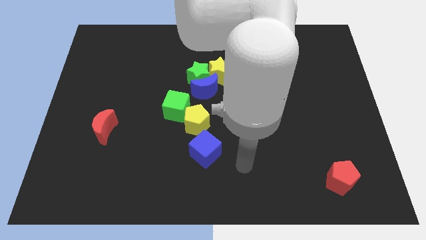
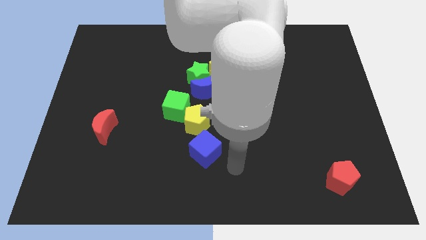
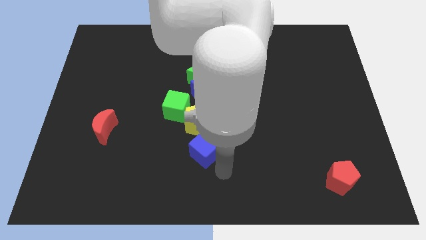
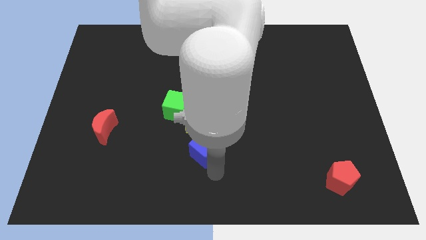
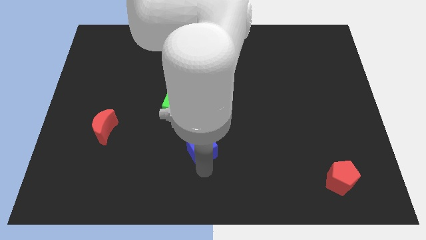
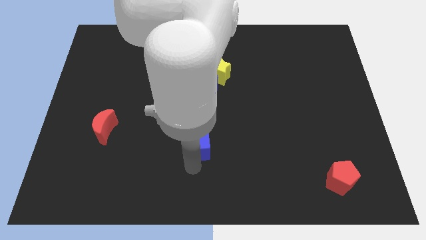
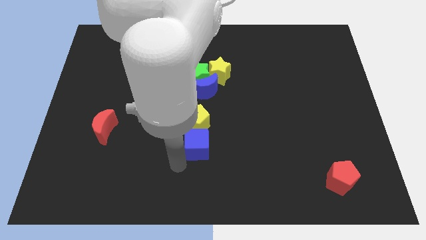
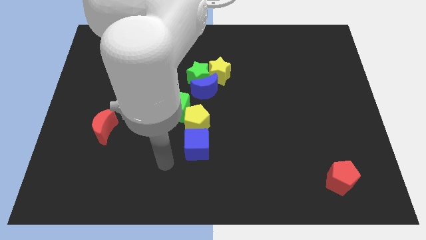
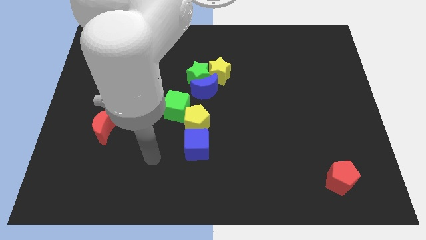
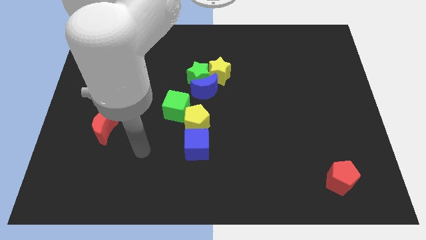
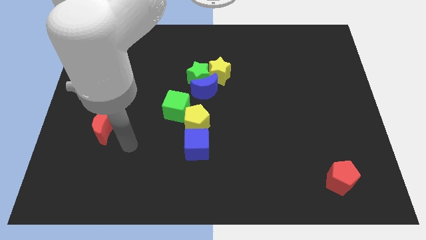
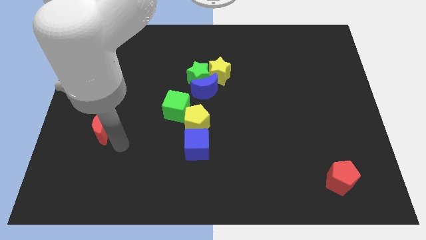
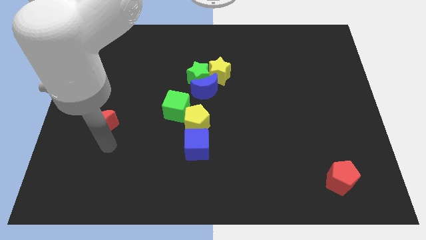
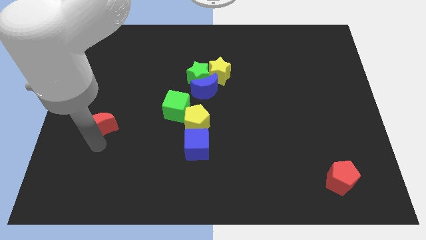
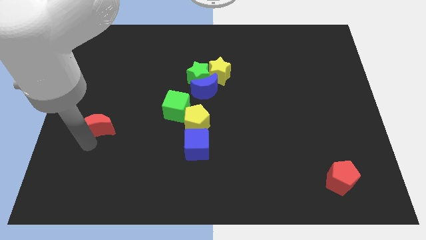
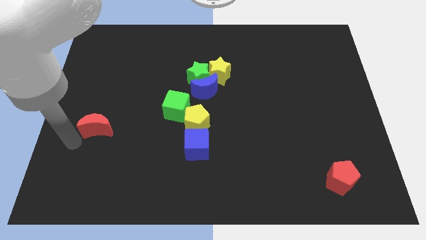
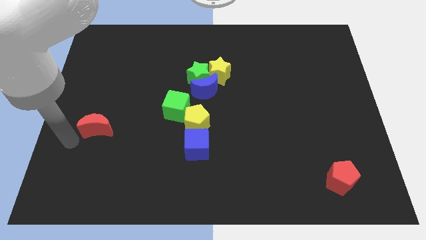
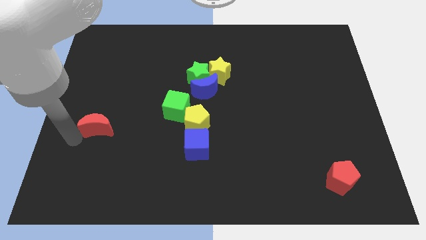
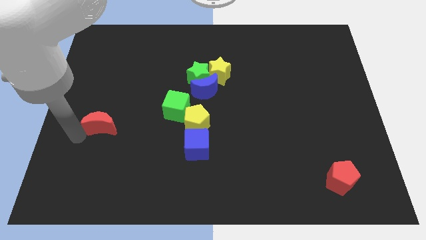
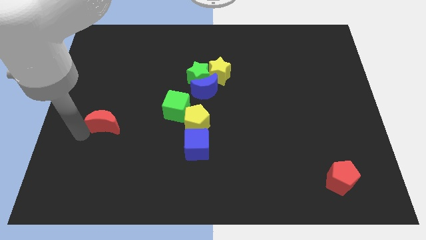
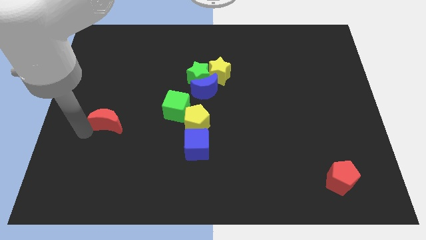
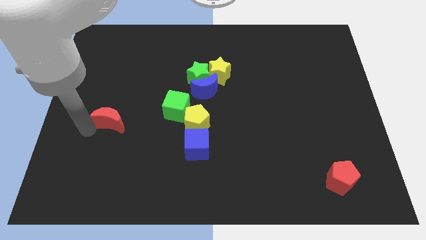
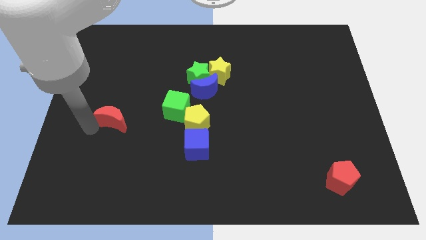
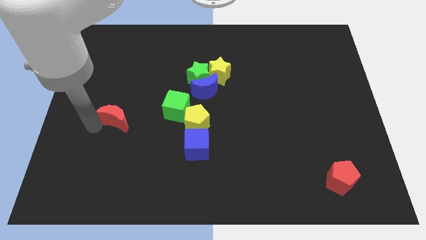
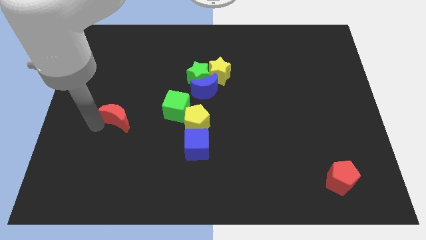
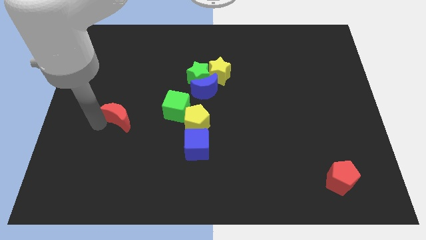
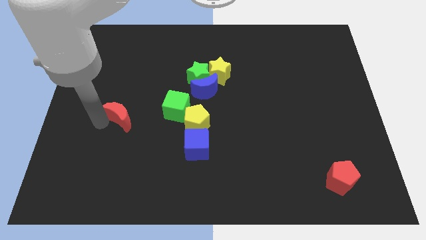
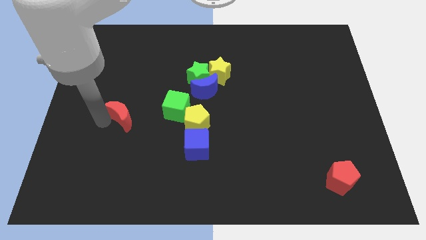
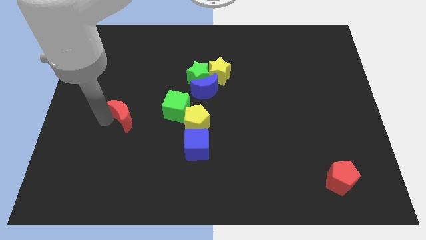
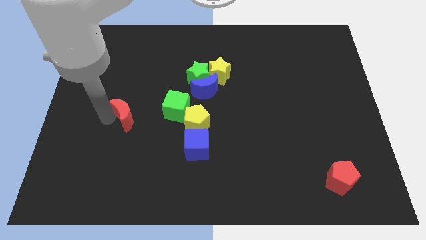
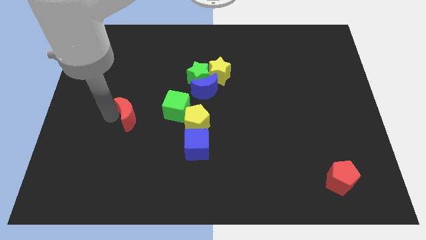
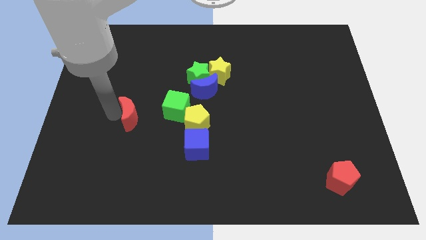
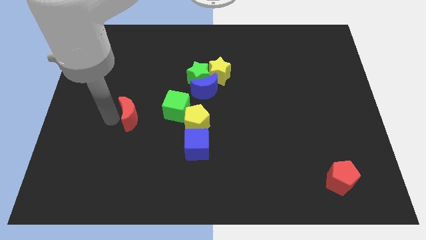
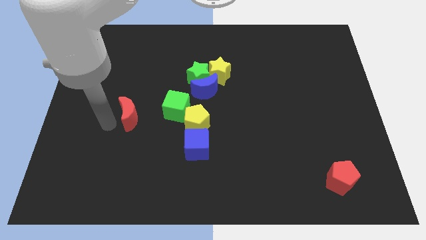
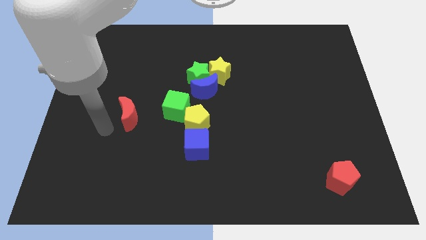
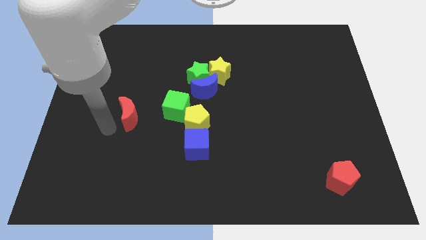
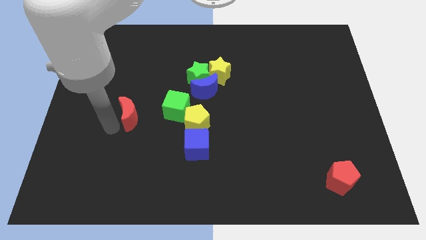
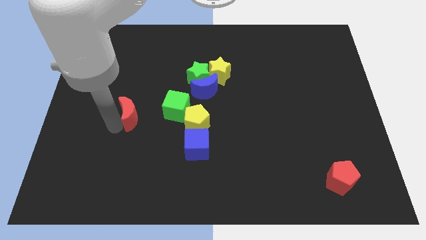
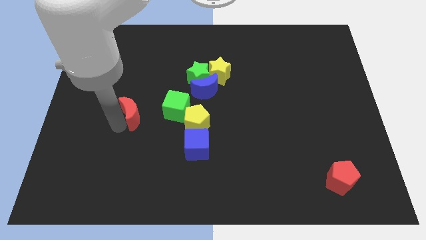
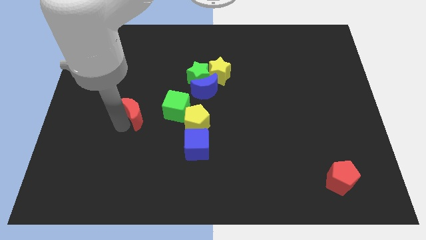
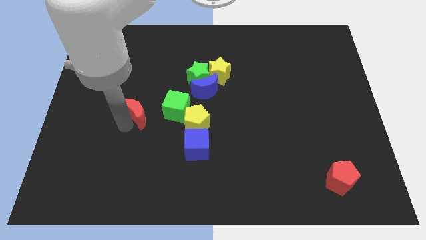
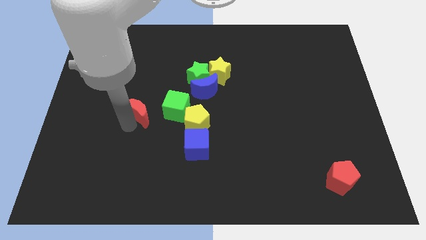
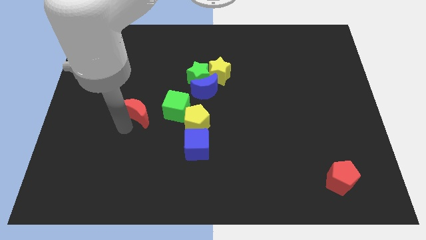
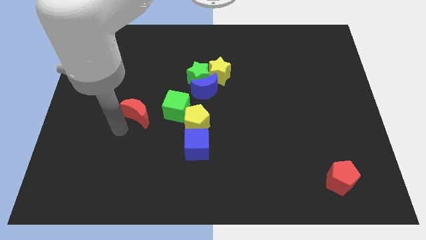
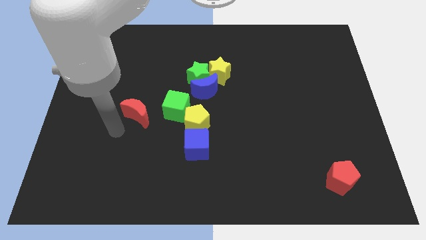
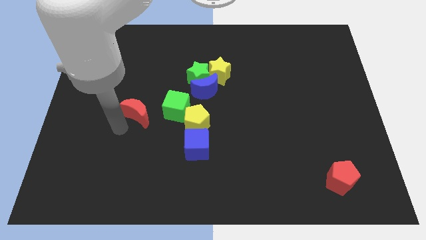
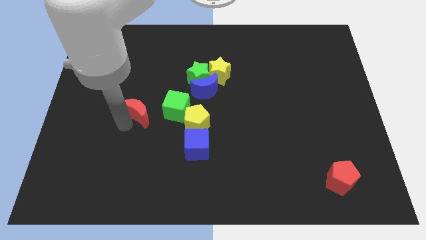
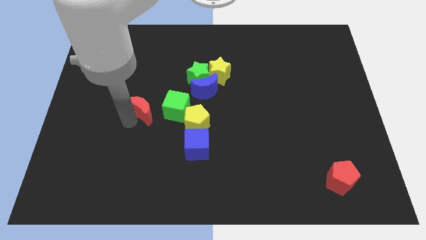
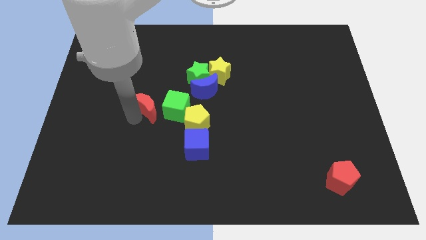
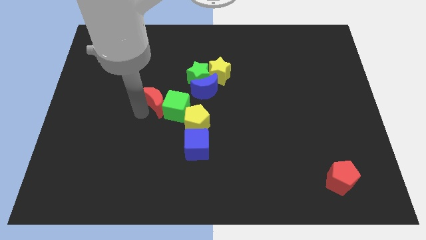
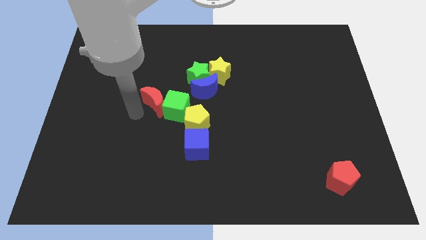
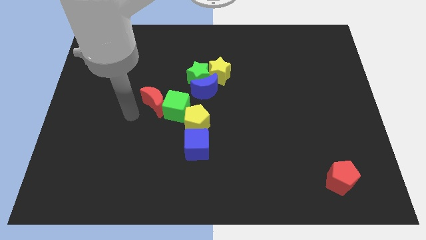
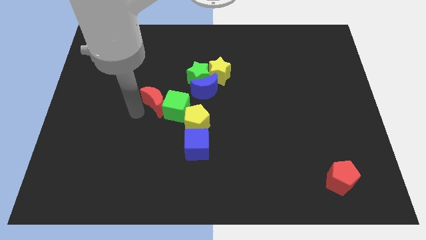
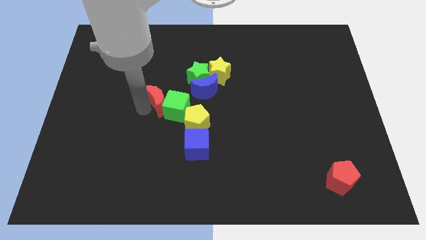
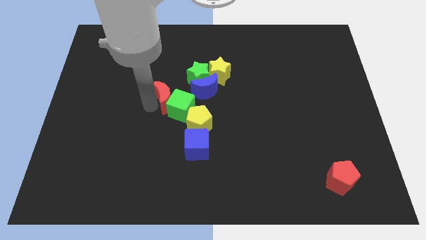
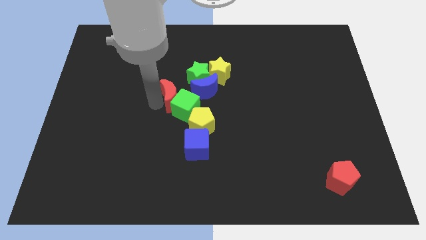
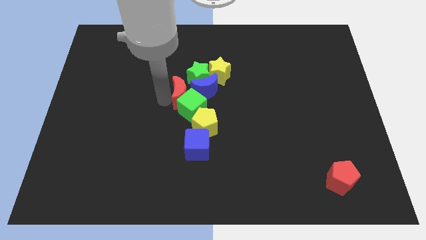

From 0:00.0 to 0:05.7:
put the red moon to the blue moon

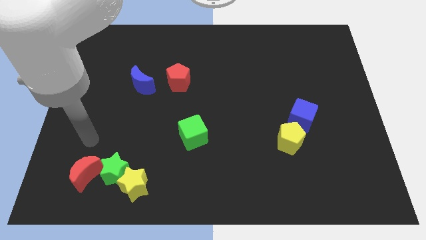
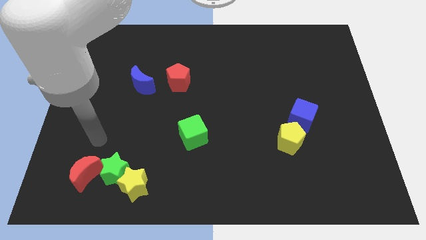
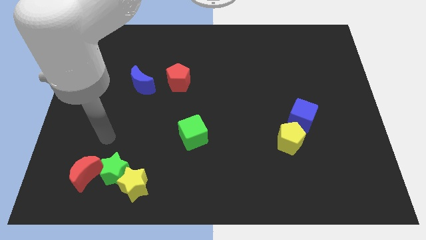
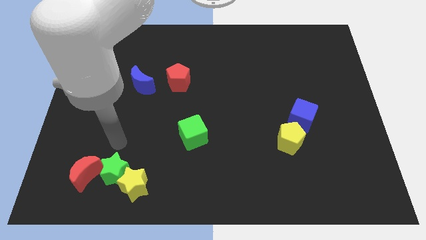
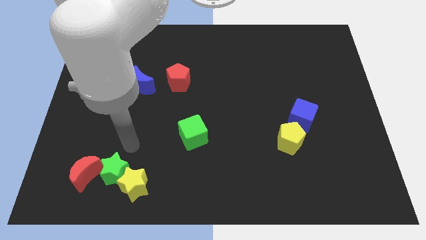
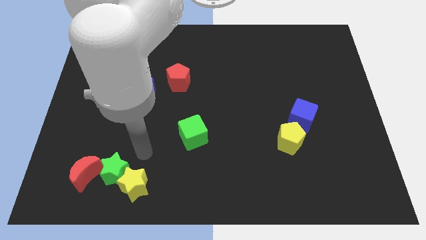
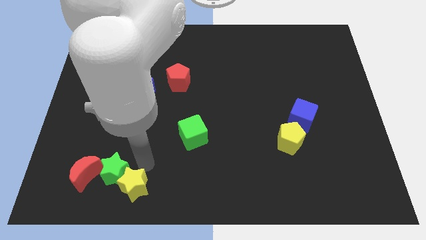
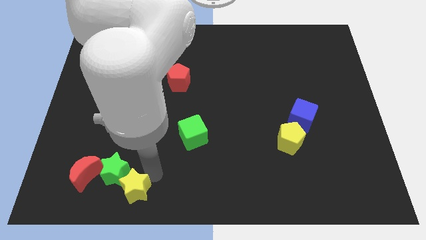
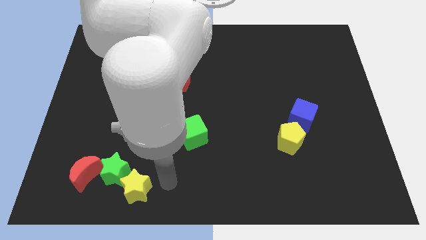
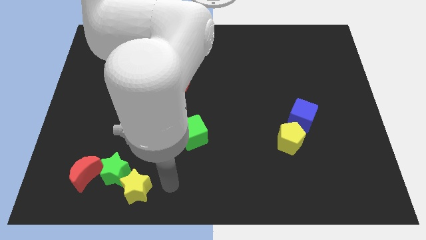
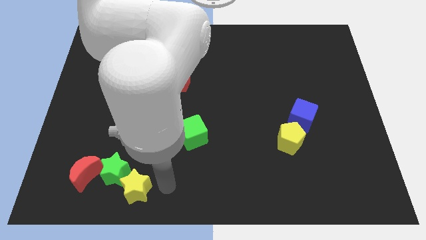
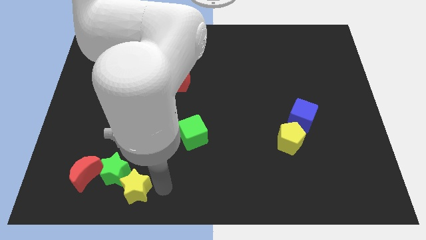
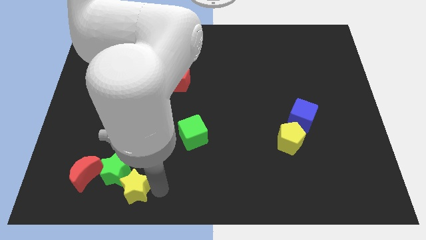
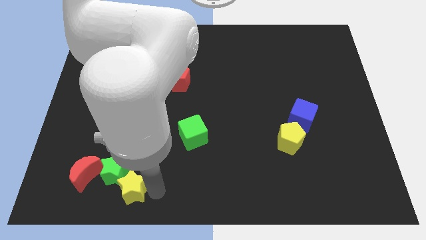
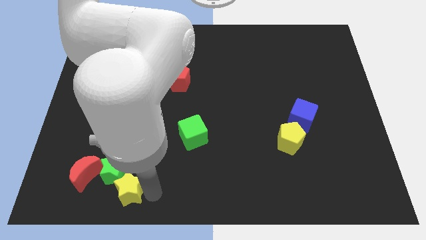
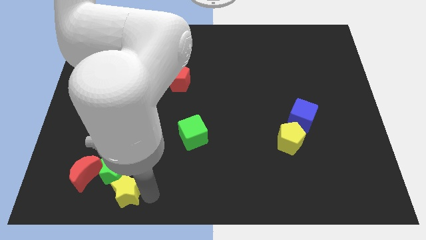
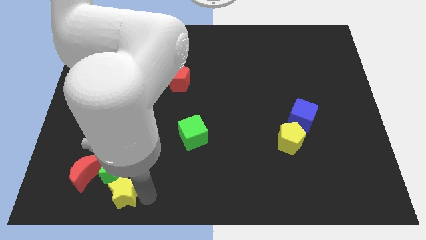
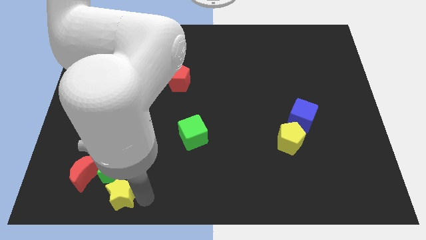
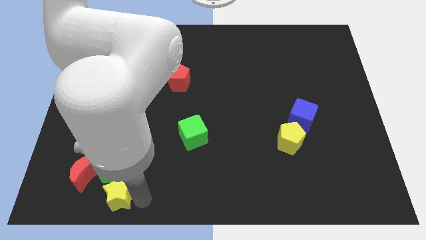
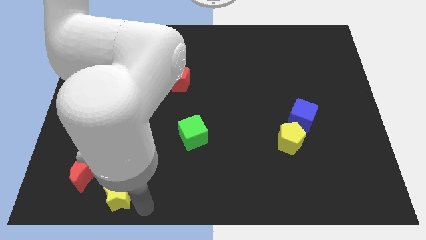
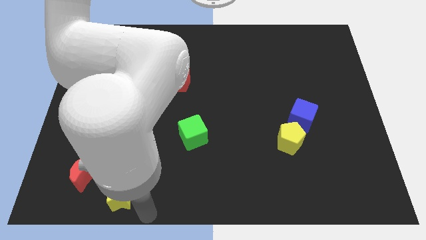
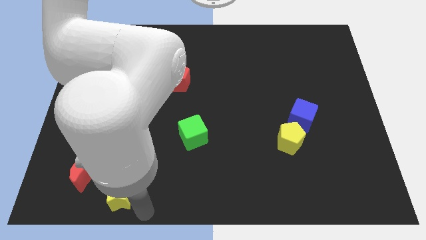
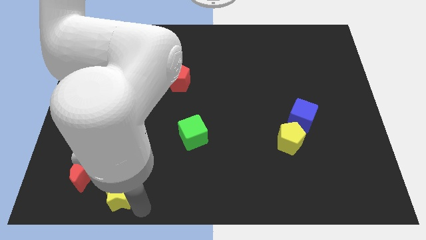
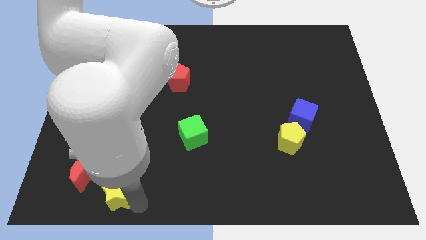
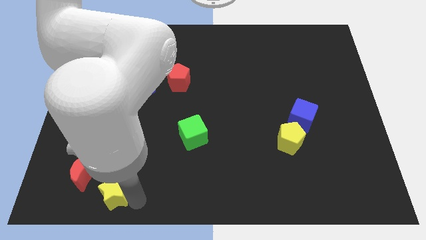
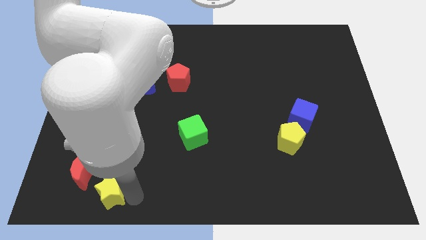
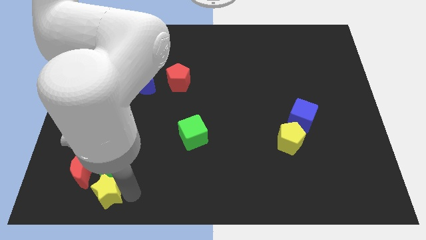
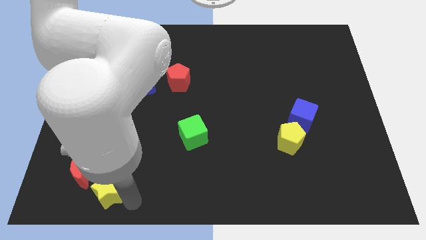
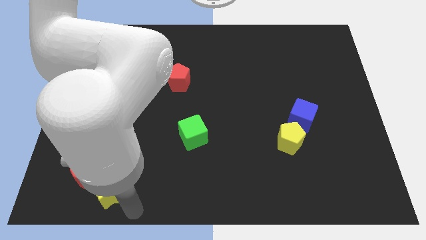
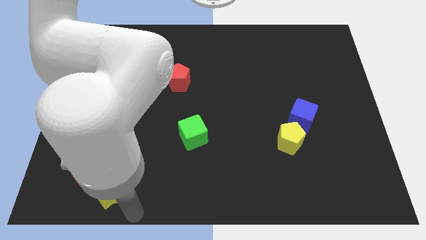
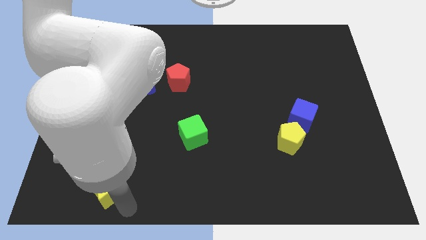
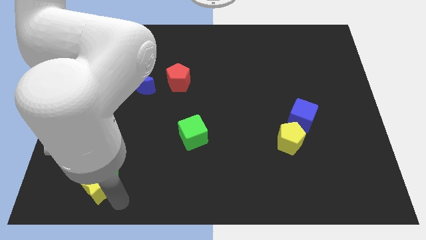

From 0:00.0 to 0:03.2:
put the yellow star to the red moon
